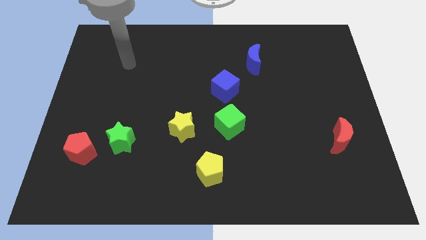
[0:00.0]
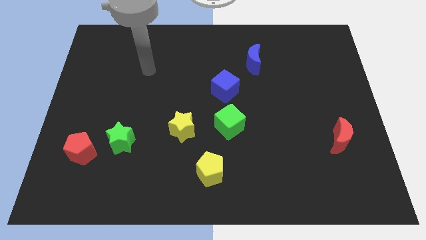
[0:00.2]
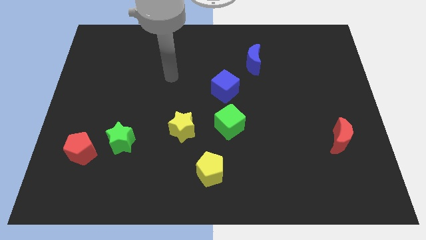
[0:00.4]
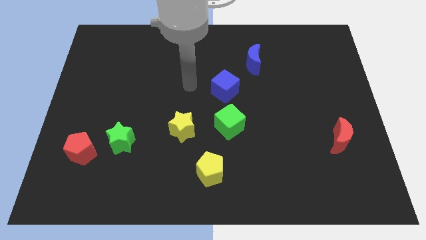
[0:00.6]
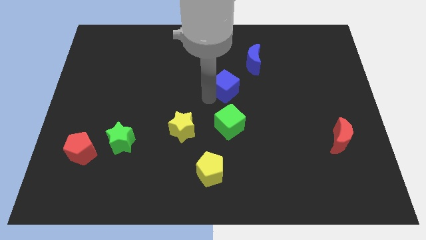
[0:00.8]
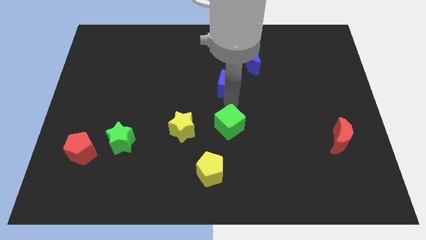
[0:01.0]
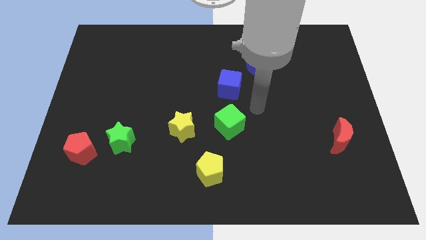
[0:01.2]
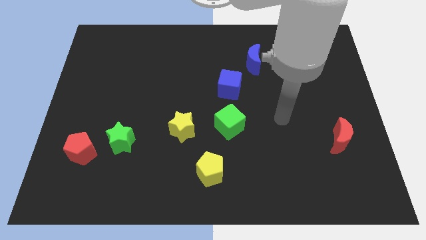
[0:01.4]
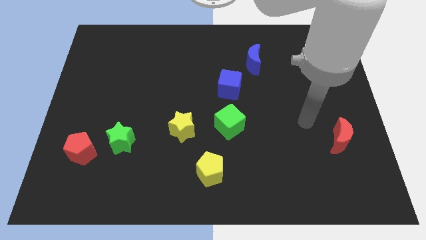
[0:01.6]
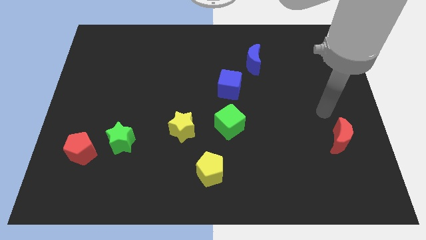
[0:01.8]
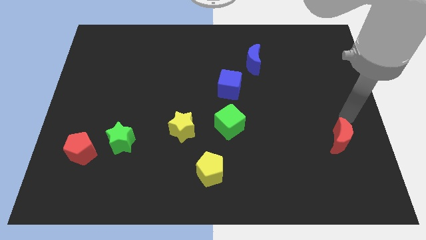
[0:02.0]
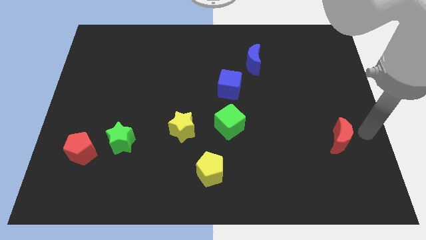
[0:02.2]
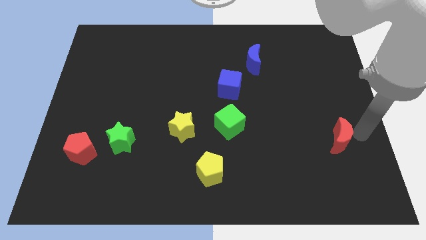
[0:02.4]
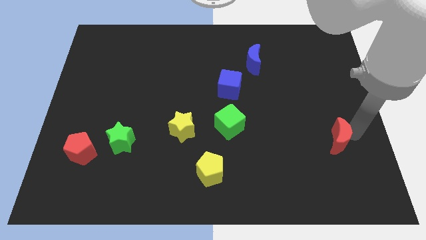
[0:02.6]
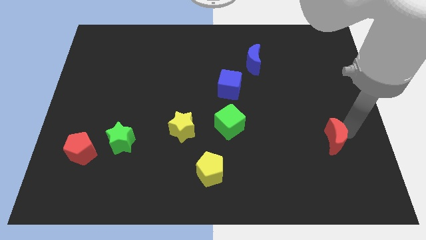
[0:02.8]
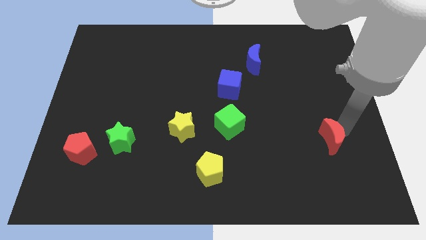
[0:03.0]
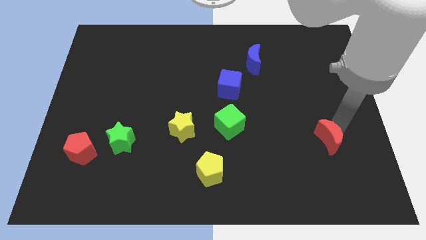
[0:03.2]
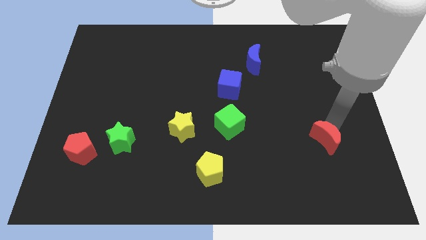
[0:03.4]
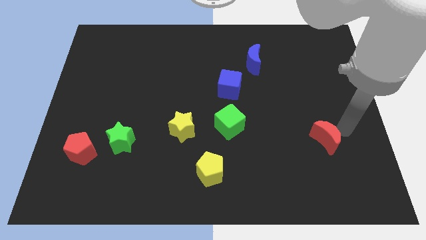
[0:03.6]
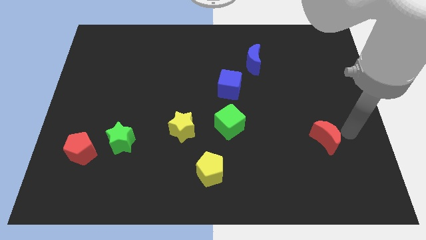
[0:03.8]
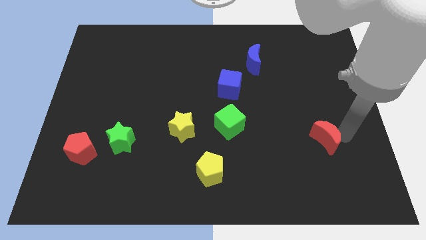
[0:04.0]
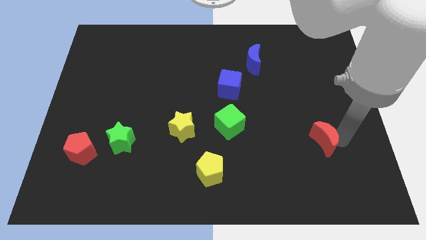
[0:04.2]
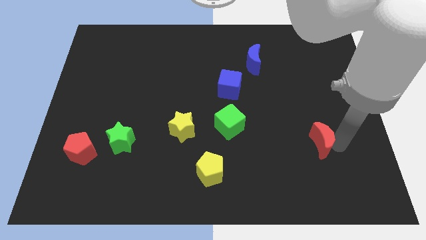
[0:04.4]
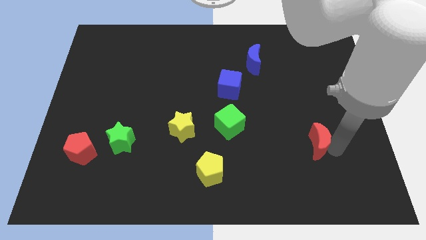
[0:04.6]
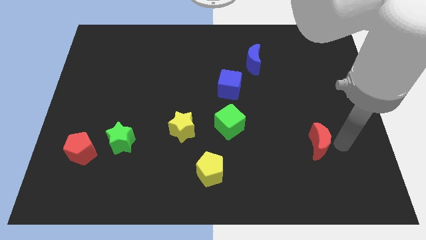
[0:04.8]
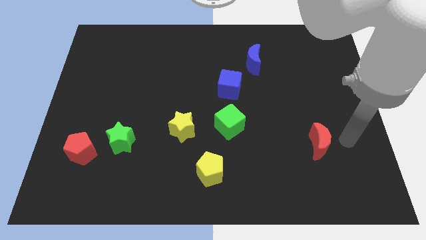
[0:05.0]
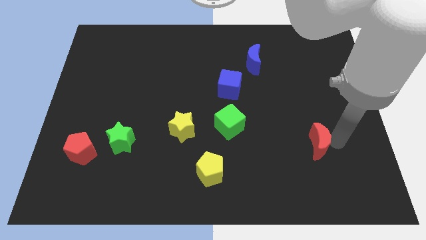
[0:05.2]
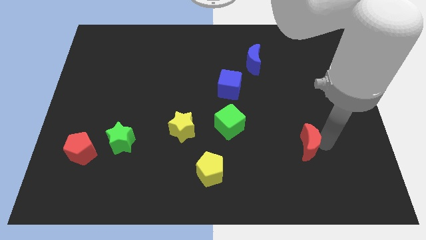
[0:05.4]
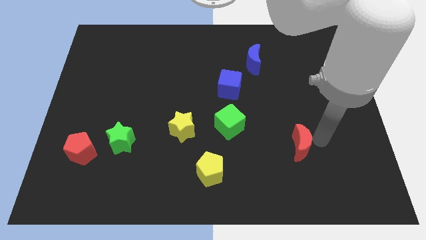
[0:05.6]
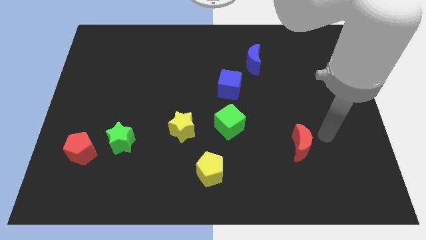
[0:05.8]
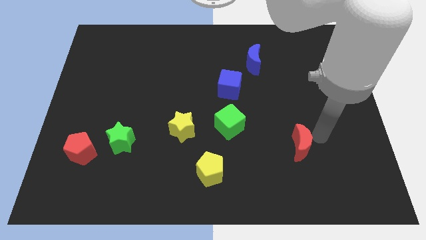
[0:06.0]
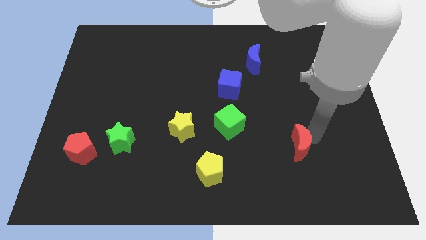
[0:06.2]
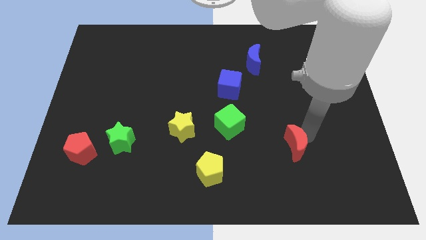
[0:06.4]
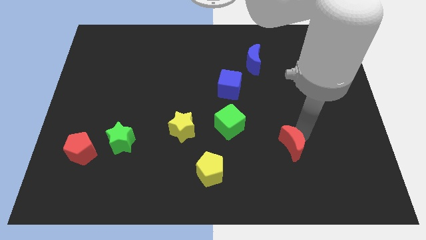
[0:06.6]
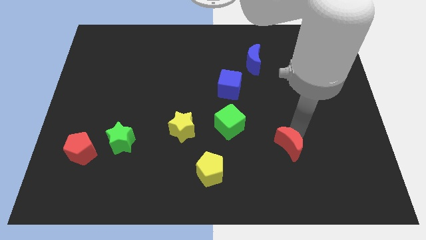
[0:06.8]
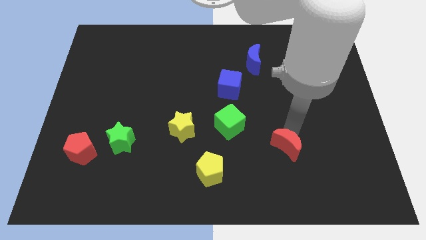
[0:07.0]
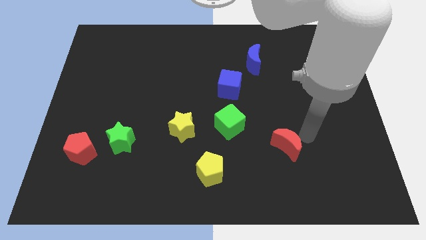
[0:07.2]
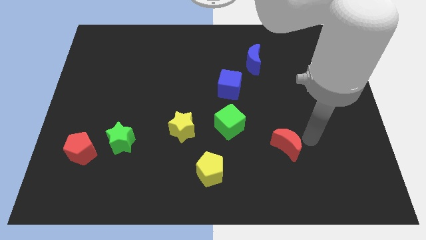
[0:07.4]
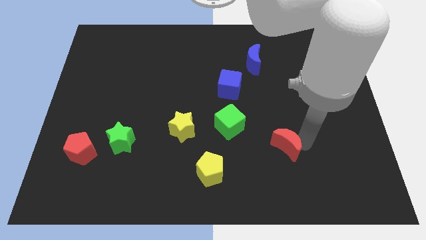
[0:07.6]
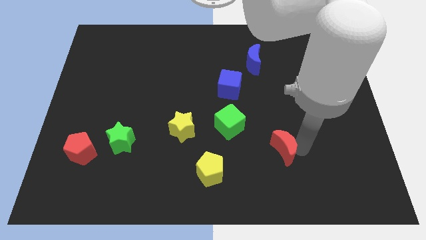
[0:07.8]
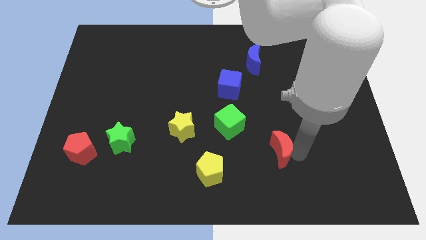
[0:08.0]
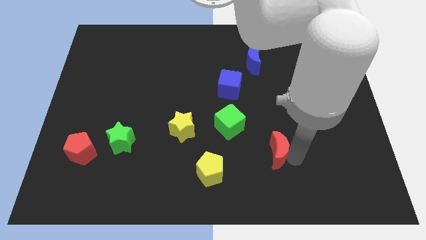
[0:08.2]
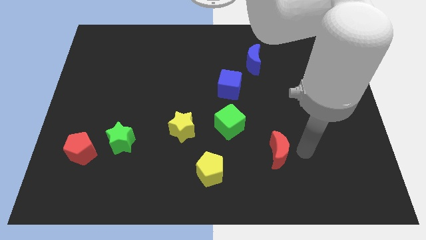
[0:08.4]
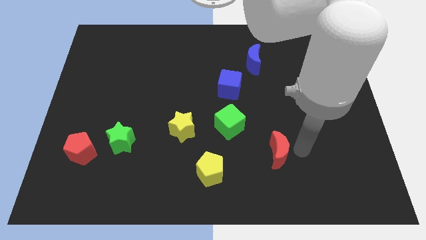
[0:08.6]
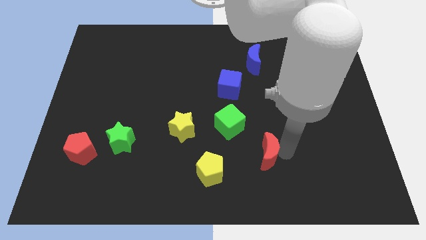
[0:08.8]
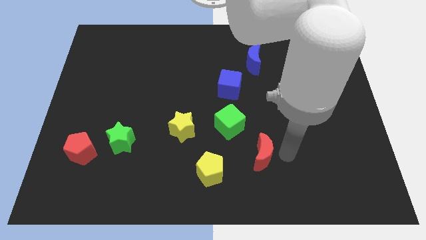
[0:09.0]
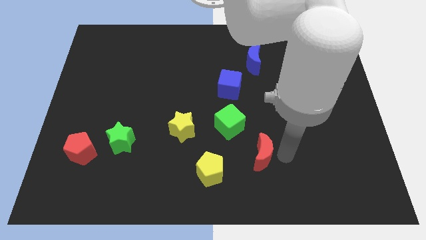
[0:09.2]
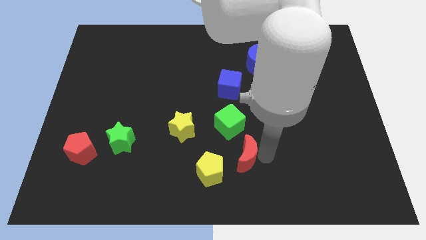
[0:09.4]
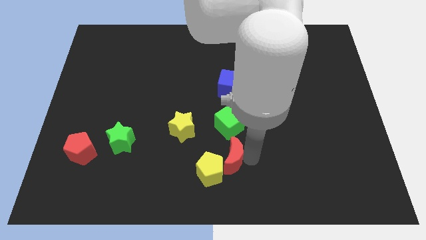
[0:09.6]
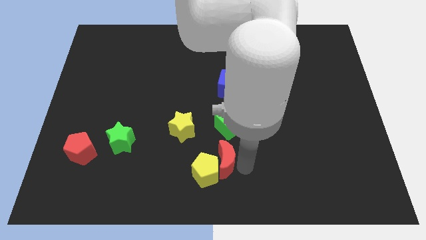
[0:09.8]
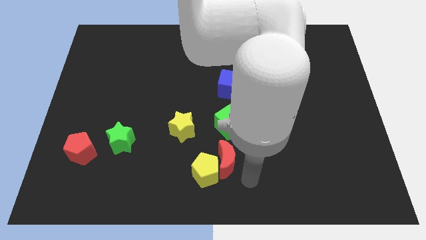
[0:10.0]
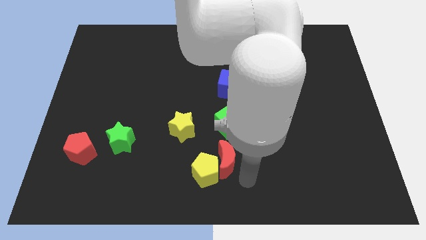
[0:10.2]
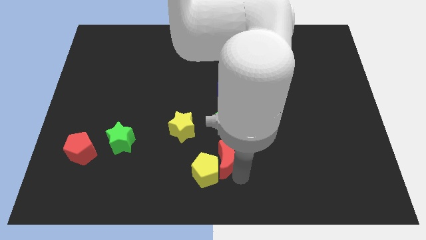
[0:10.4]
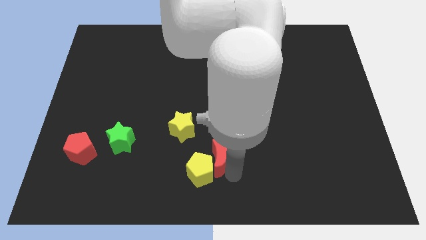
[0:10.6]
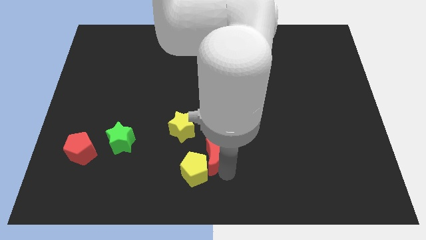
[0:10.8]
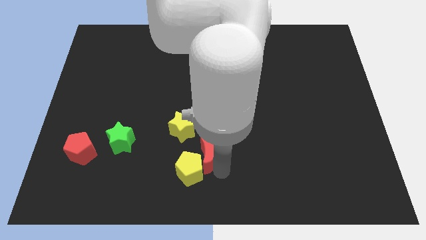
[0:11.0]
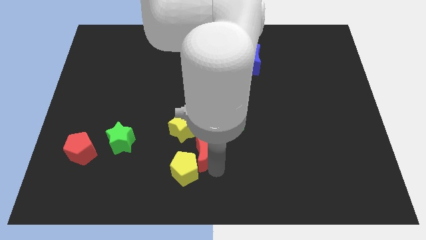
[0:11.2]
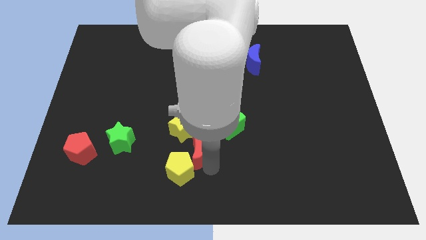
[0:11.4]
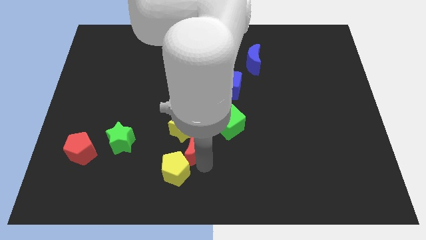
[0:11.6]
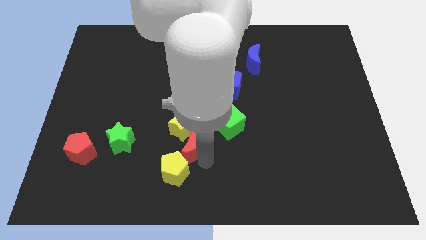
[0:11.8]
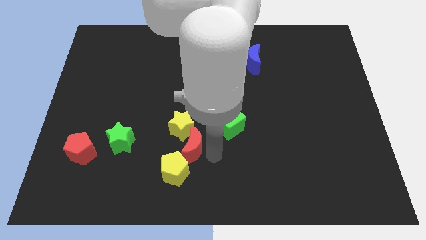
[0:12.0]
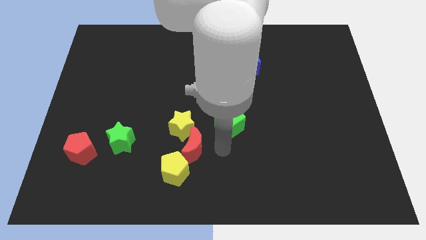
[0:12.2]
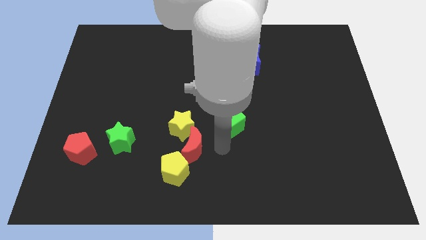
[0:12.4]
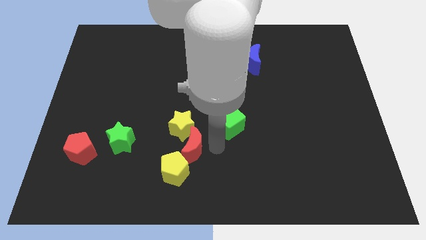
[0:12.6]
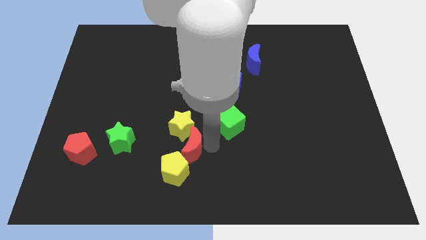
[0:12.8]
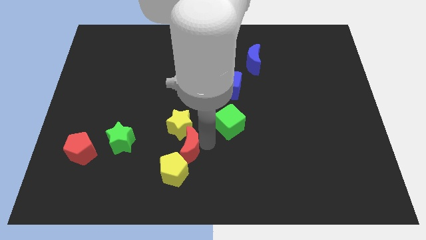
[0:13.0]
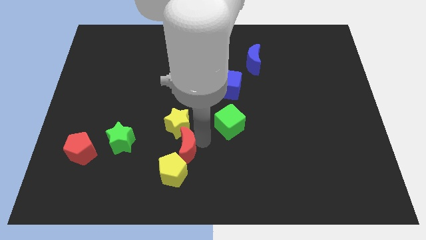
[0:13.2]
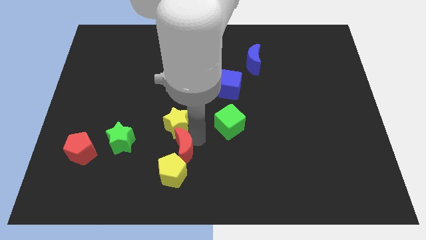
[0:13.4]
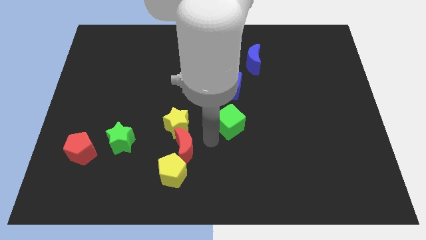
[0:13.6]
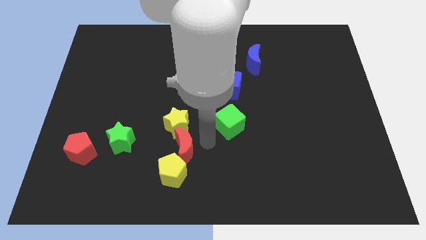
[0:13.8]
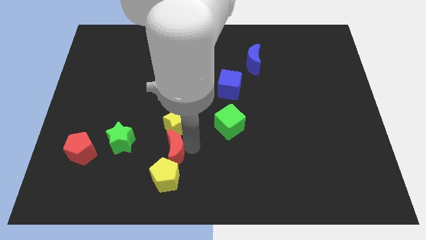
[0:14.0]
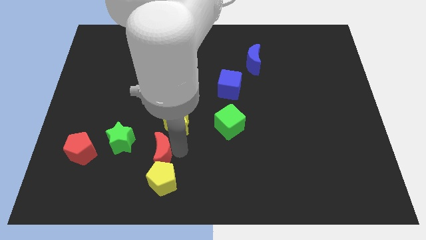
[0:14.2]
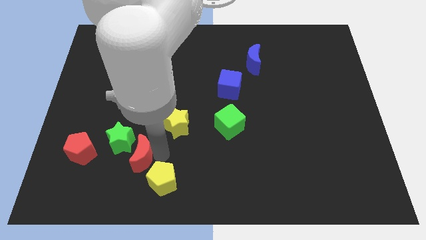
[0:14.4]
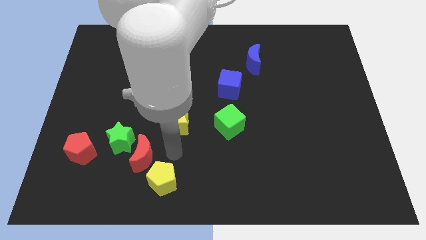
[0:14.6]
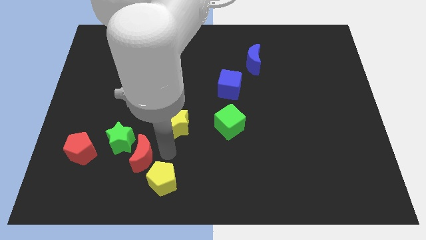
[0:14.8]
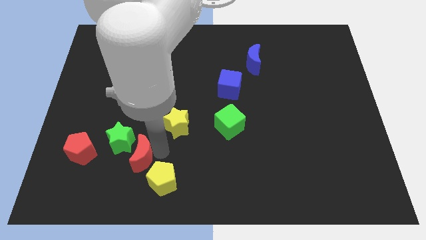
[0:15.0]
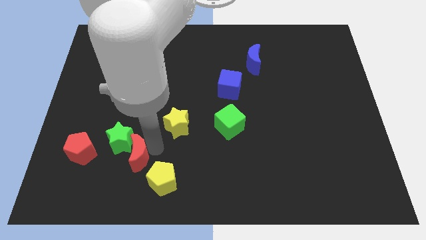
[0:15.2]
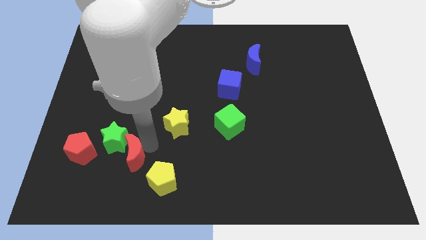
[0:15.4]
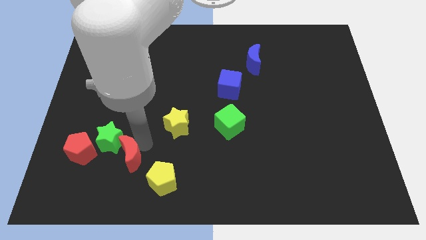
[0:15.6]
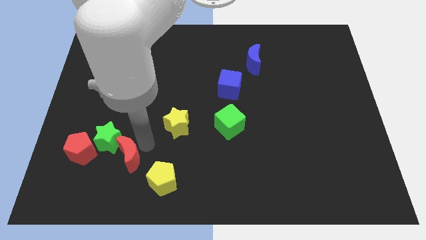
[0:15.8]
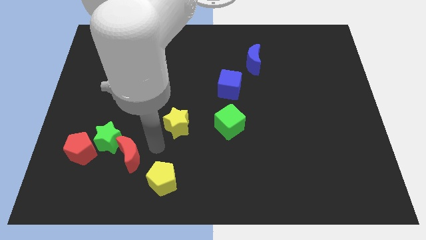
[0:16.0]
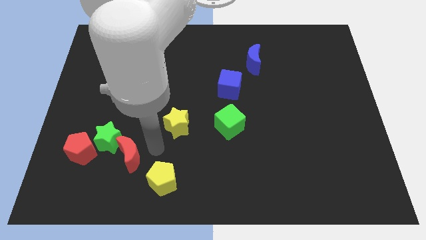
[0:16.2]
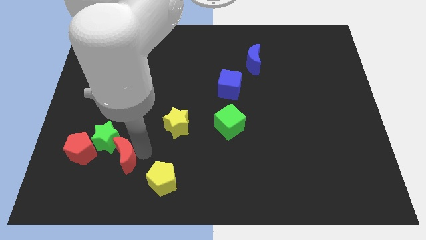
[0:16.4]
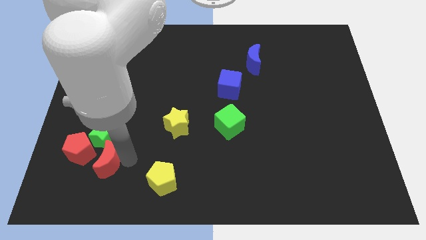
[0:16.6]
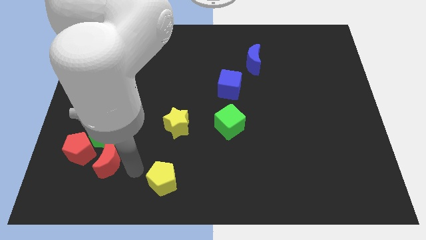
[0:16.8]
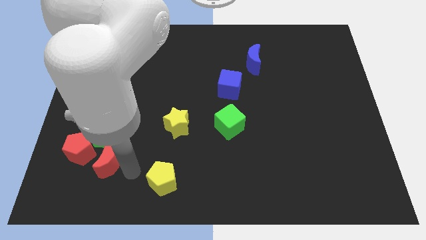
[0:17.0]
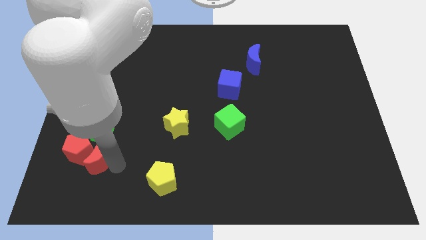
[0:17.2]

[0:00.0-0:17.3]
push the red moon close to the red pentagon
